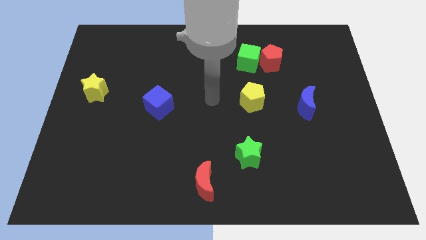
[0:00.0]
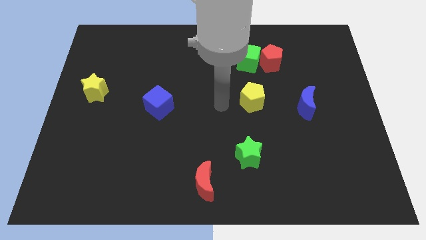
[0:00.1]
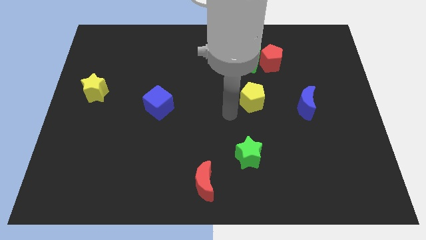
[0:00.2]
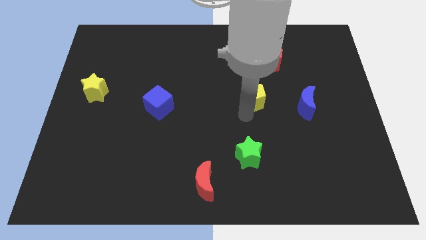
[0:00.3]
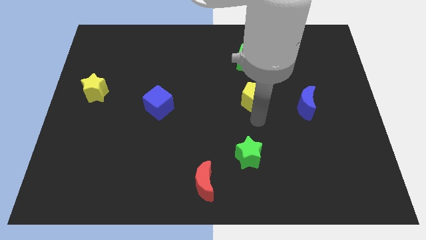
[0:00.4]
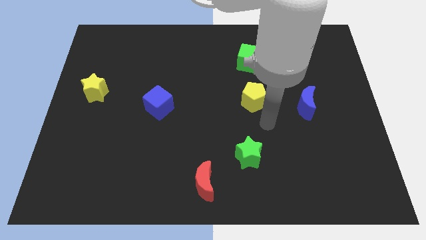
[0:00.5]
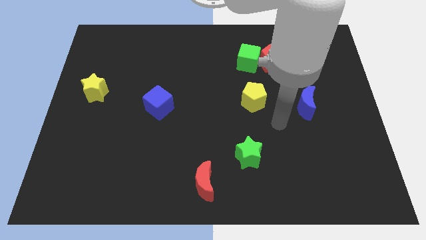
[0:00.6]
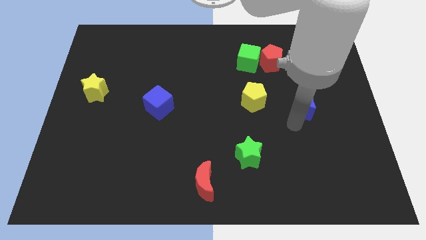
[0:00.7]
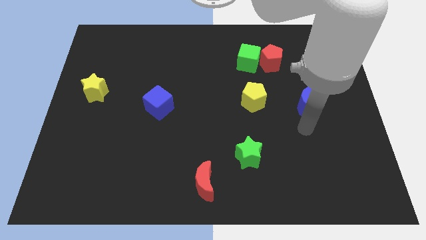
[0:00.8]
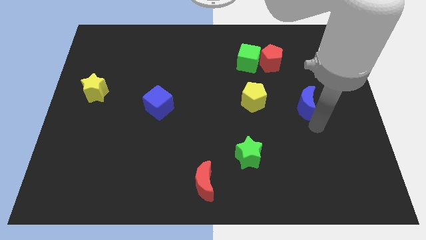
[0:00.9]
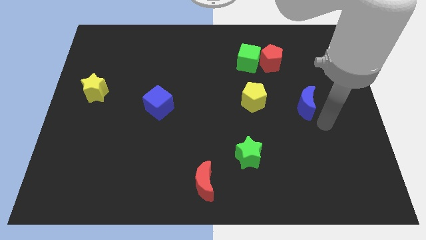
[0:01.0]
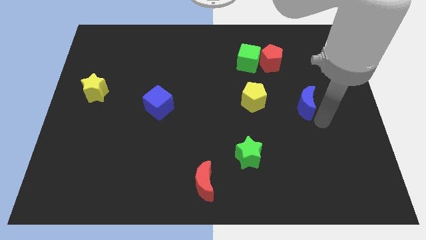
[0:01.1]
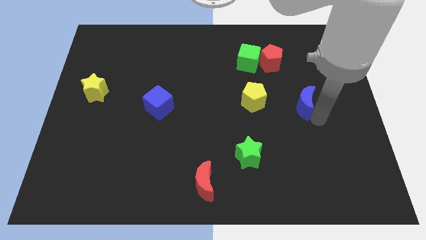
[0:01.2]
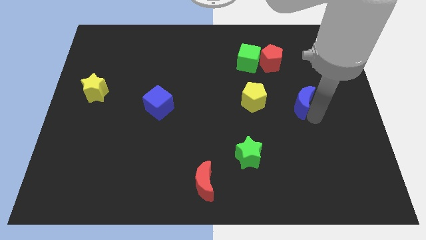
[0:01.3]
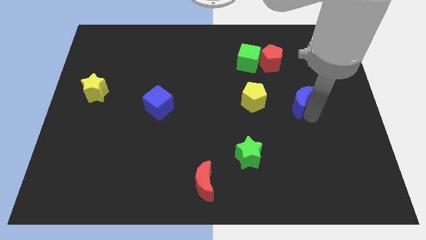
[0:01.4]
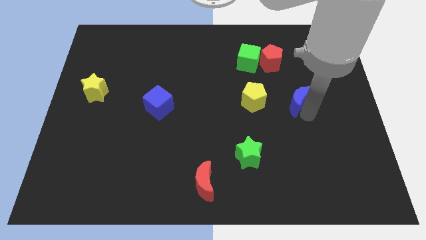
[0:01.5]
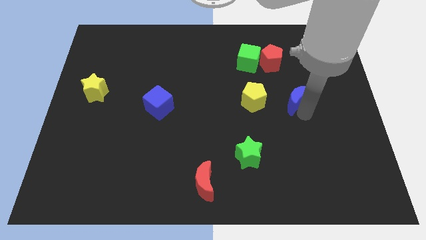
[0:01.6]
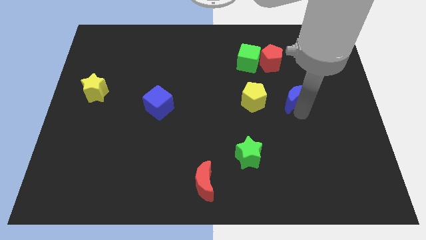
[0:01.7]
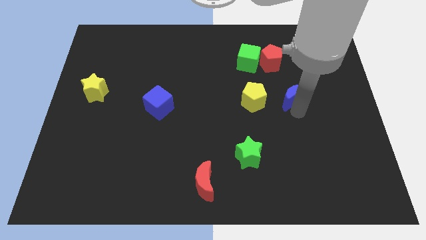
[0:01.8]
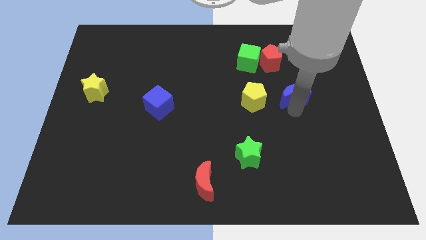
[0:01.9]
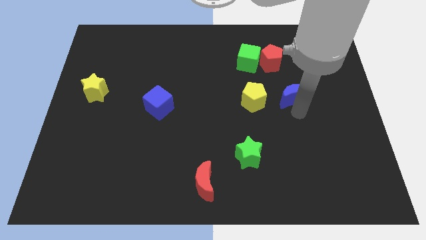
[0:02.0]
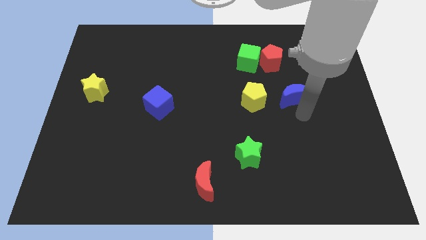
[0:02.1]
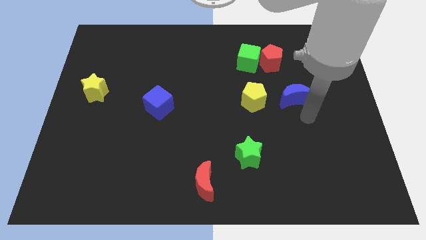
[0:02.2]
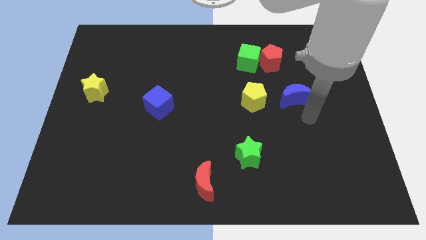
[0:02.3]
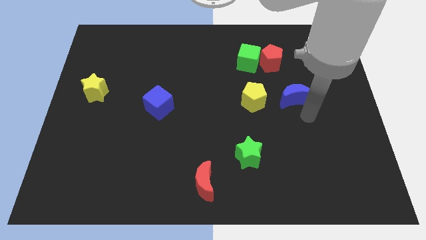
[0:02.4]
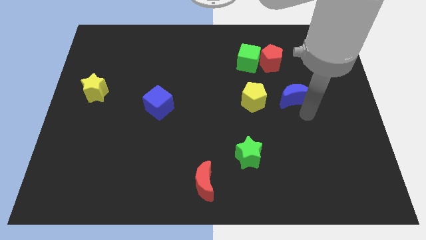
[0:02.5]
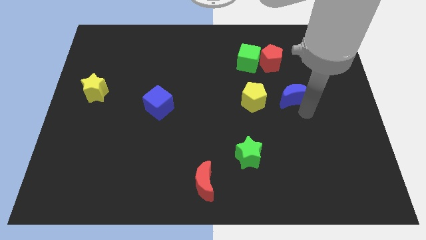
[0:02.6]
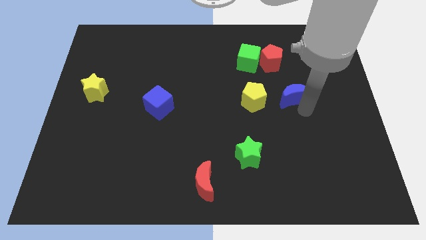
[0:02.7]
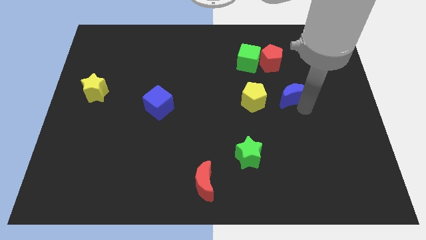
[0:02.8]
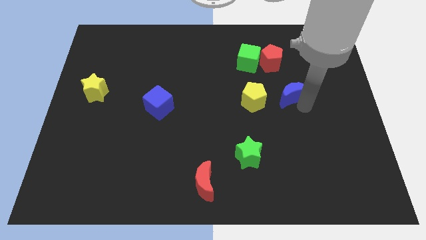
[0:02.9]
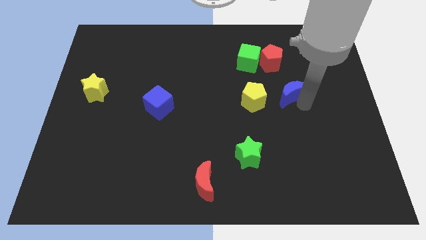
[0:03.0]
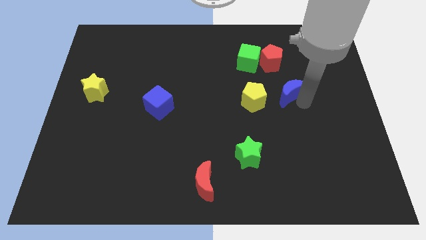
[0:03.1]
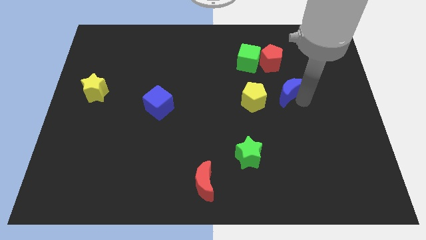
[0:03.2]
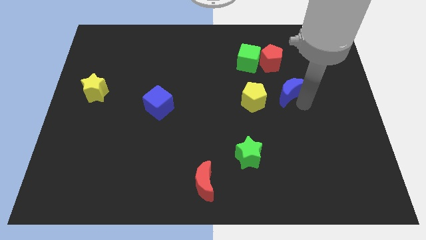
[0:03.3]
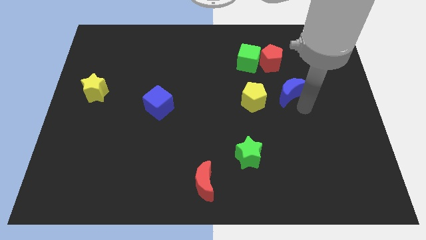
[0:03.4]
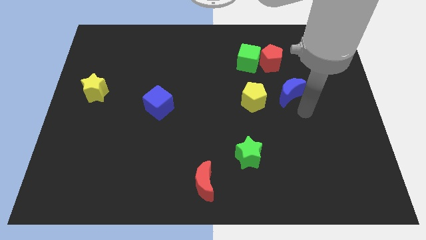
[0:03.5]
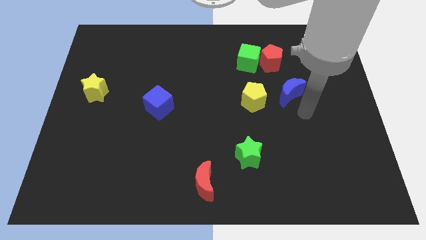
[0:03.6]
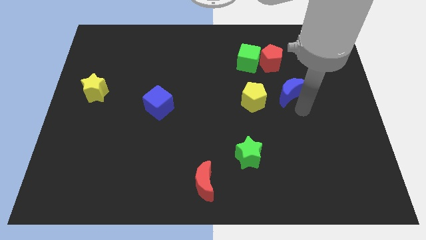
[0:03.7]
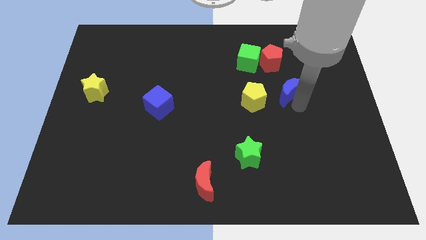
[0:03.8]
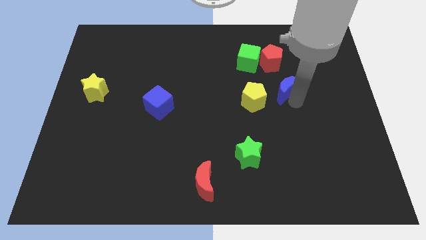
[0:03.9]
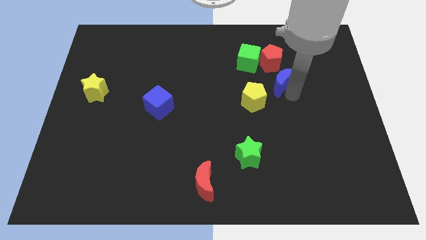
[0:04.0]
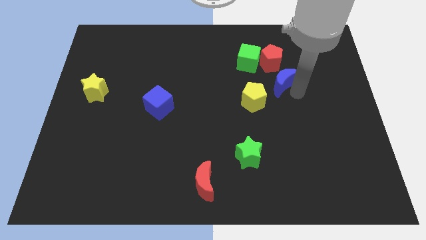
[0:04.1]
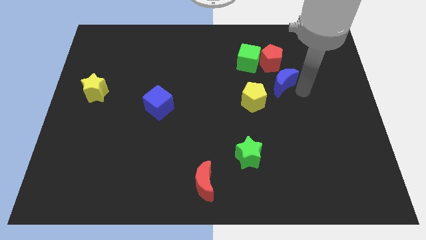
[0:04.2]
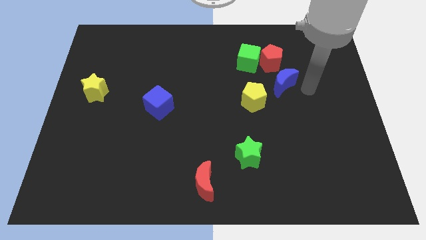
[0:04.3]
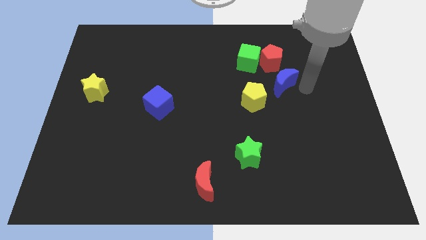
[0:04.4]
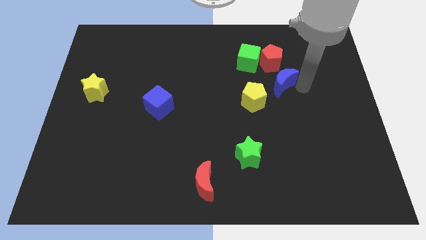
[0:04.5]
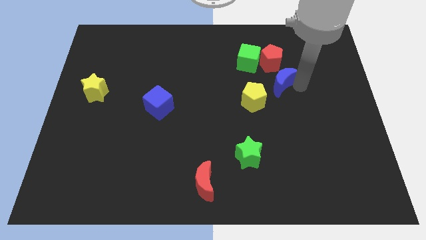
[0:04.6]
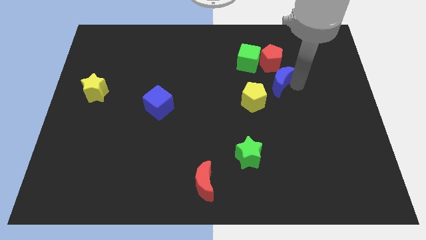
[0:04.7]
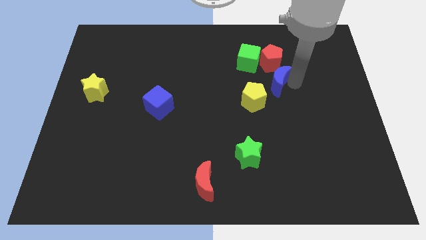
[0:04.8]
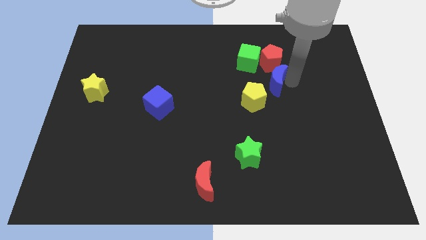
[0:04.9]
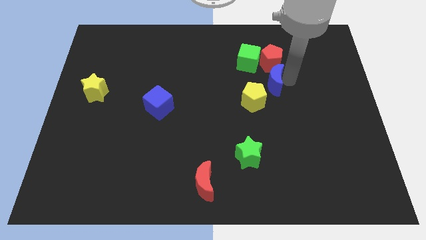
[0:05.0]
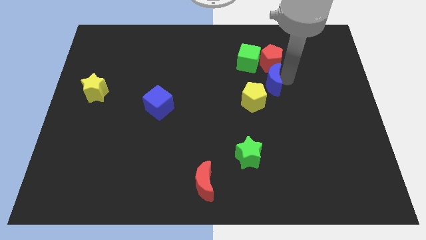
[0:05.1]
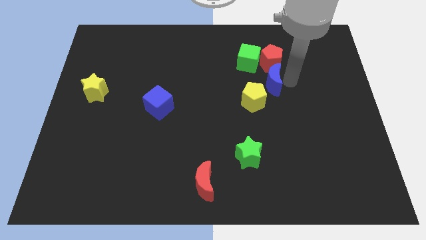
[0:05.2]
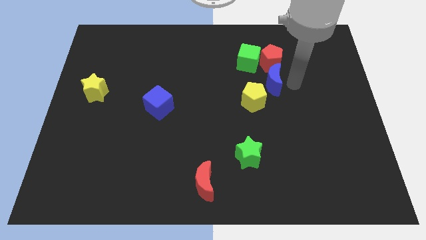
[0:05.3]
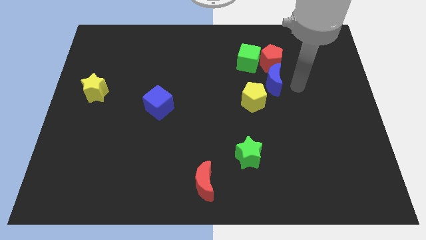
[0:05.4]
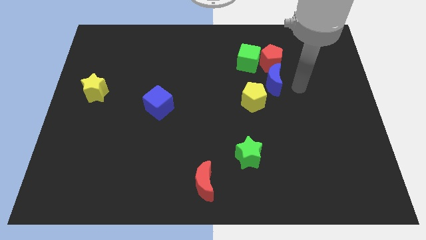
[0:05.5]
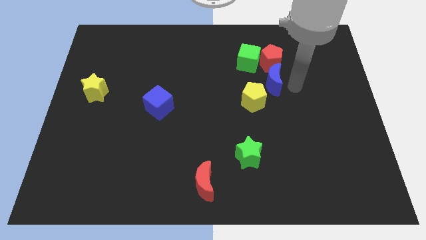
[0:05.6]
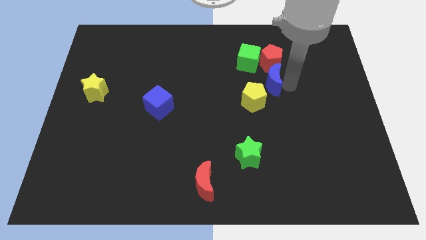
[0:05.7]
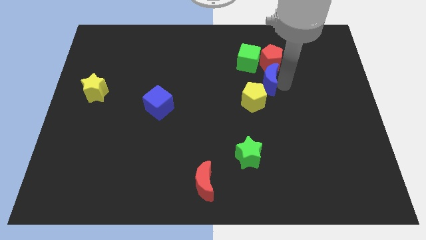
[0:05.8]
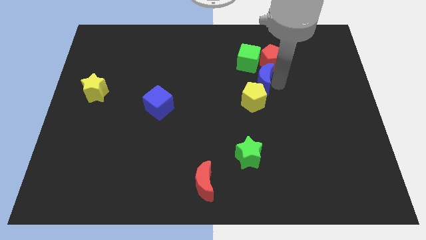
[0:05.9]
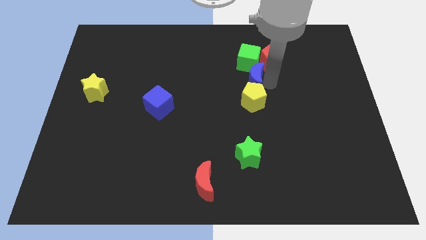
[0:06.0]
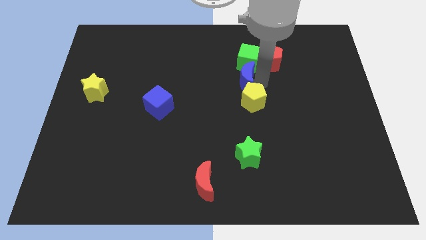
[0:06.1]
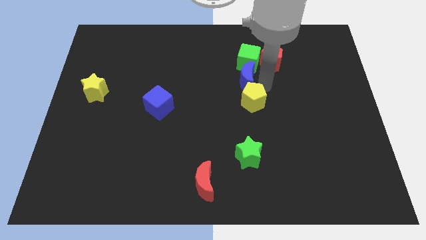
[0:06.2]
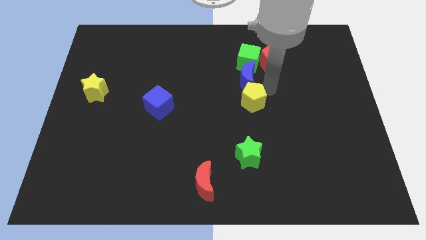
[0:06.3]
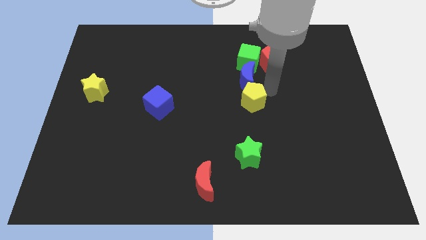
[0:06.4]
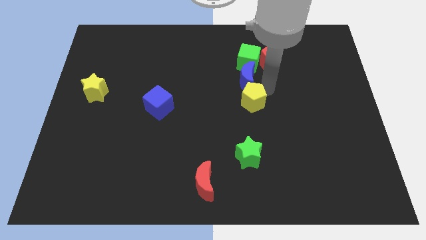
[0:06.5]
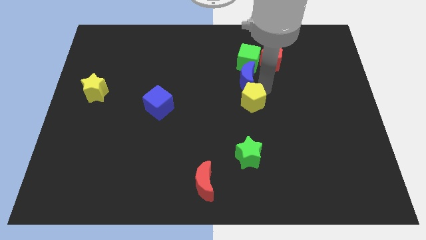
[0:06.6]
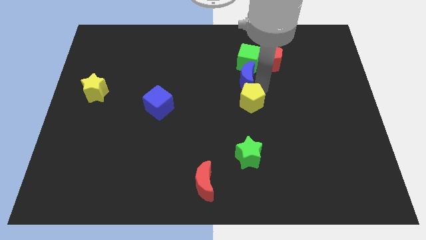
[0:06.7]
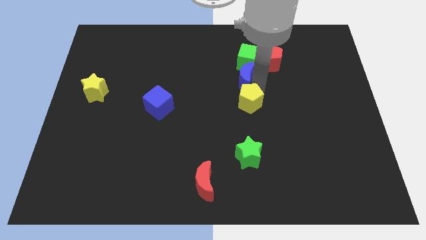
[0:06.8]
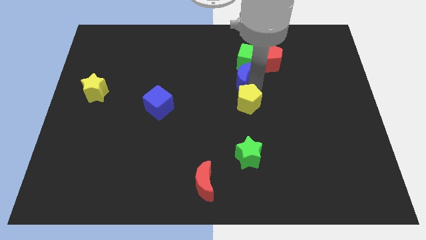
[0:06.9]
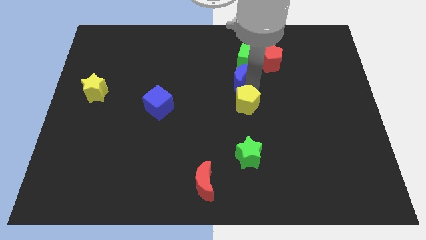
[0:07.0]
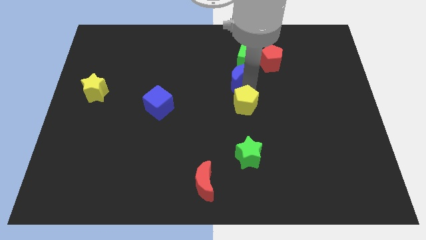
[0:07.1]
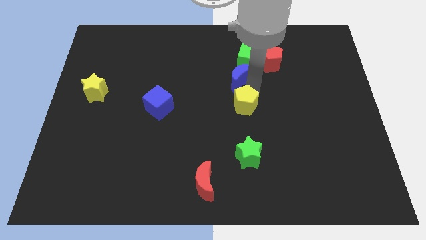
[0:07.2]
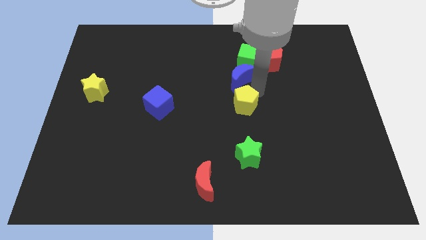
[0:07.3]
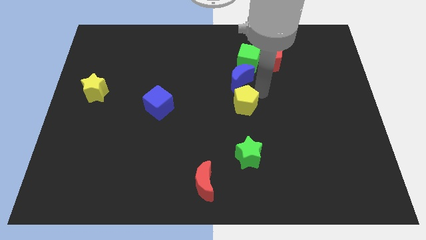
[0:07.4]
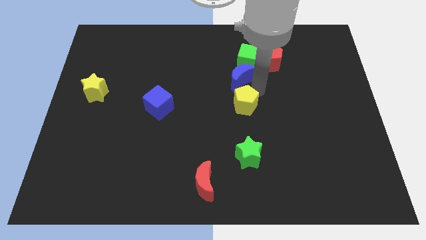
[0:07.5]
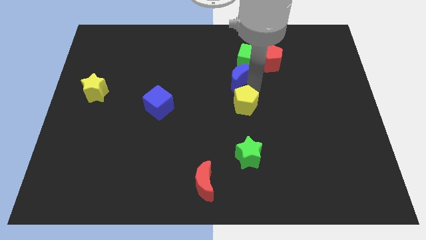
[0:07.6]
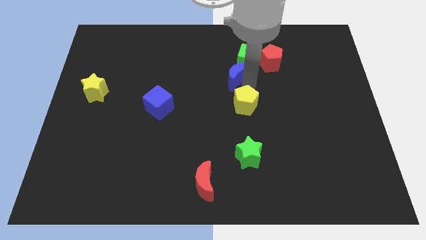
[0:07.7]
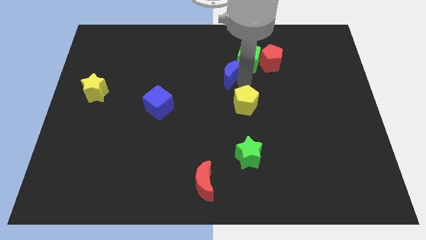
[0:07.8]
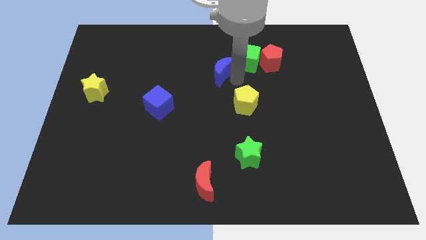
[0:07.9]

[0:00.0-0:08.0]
move the blue moon to the left side of the green cube
